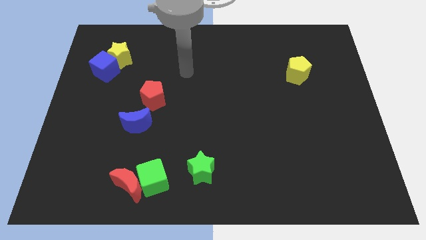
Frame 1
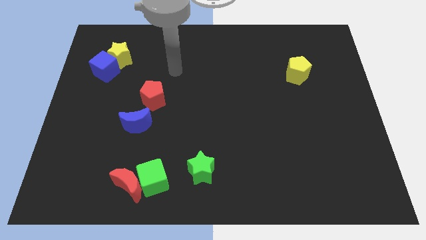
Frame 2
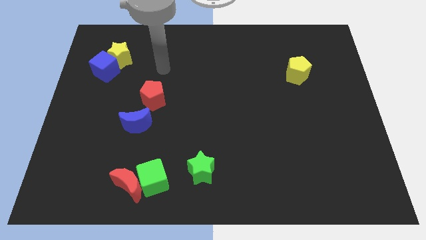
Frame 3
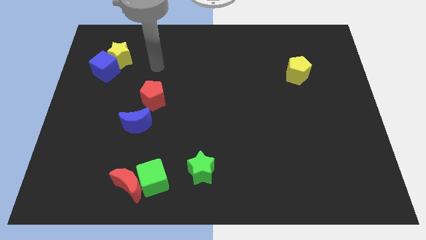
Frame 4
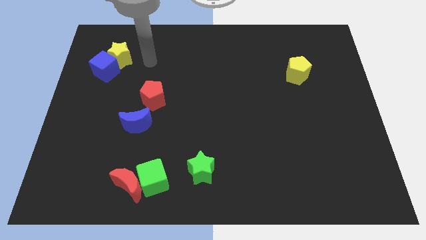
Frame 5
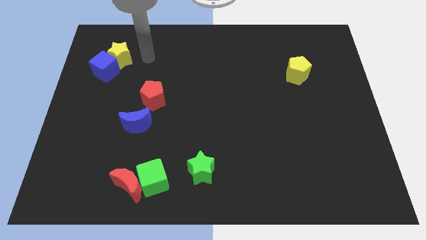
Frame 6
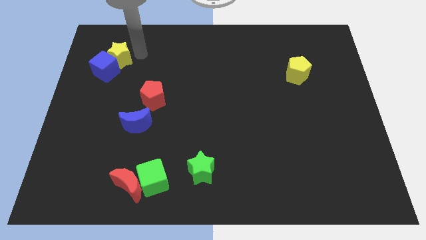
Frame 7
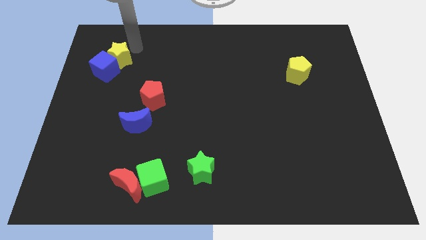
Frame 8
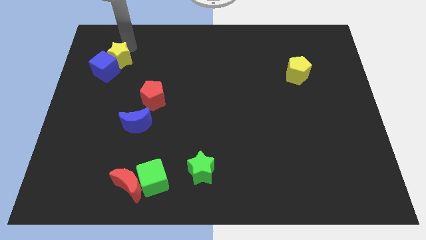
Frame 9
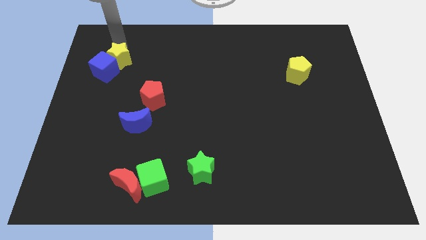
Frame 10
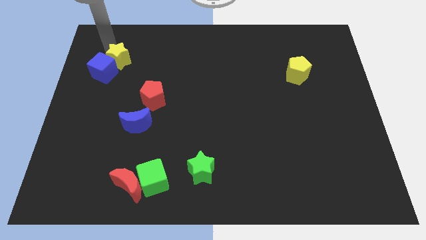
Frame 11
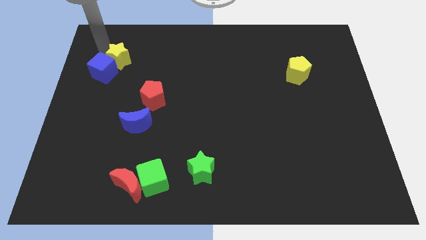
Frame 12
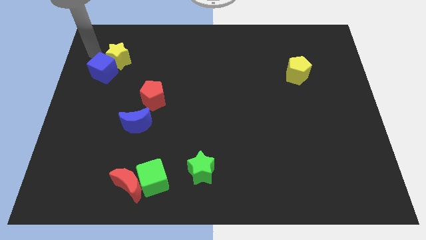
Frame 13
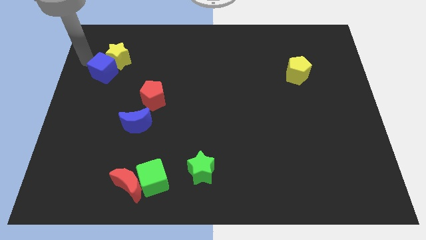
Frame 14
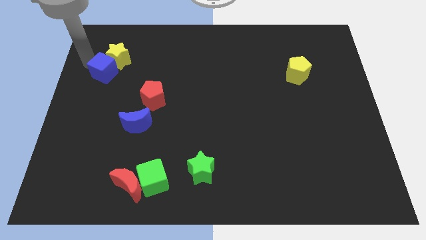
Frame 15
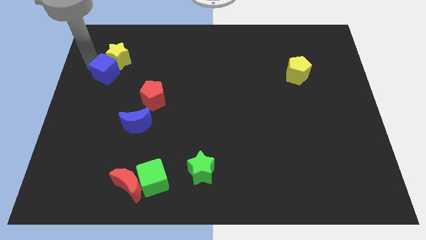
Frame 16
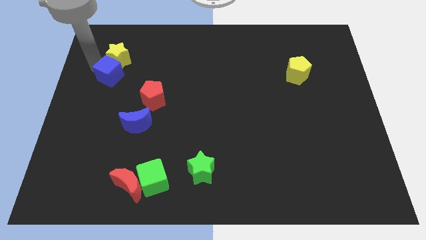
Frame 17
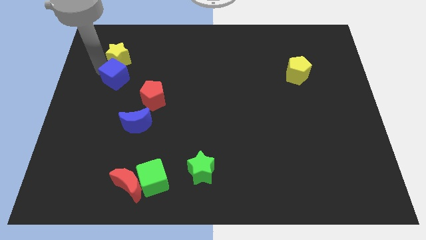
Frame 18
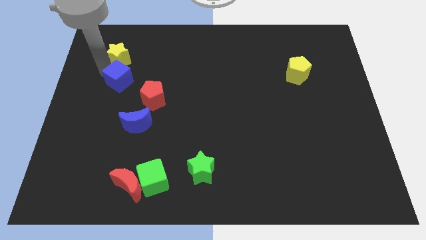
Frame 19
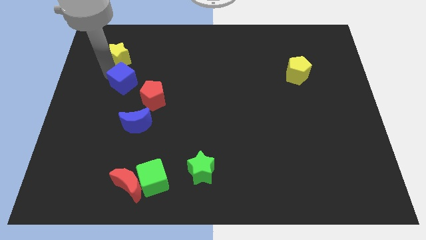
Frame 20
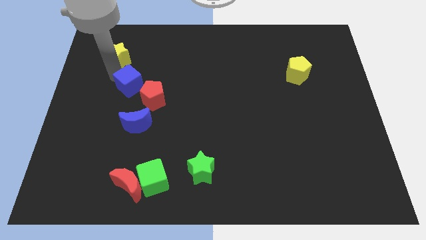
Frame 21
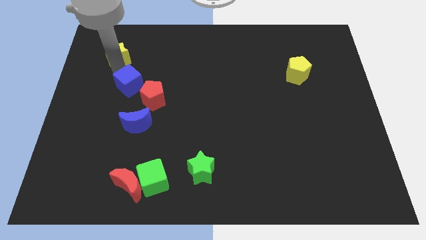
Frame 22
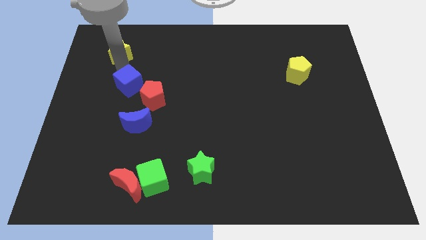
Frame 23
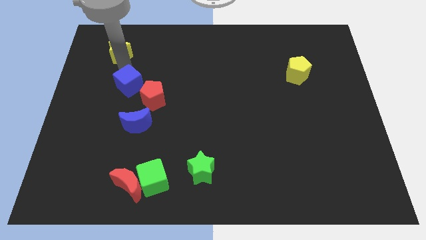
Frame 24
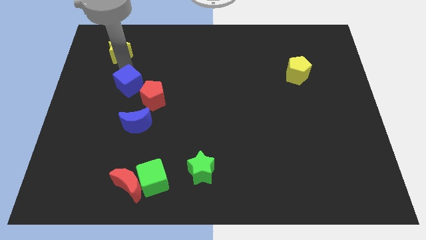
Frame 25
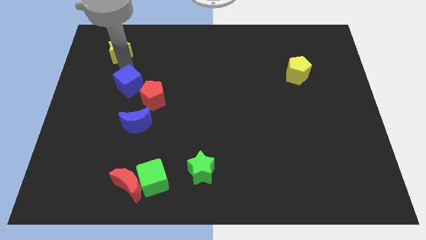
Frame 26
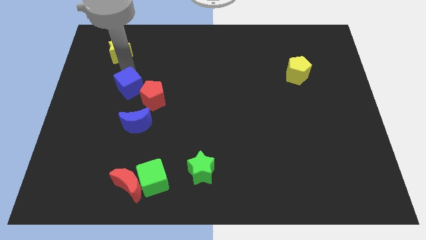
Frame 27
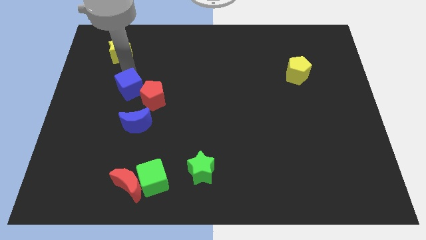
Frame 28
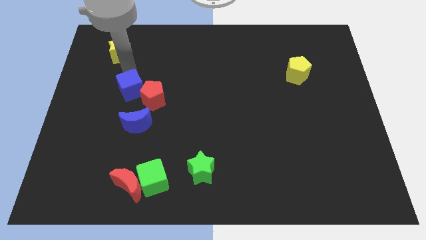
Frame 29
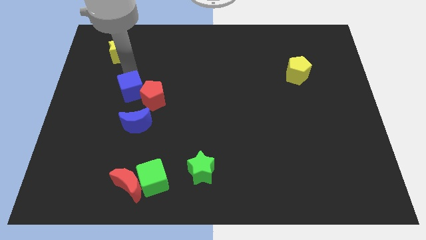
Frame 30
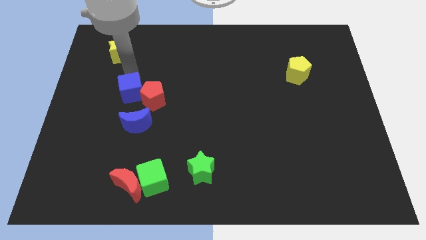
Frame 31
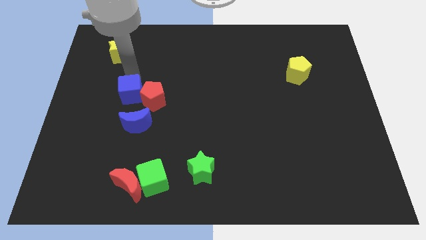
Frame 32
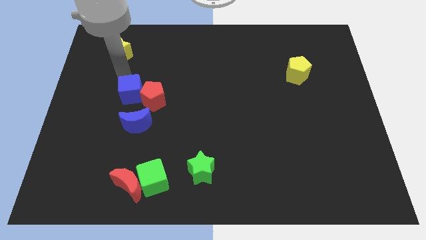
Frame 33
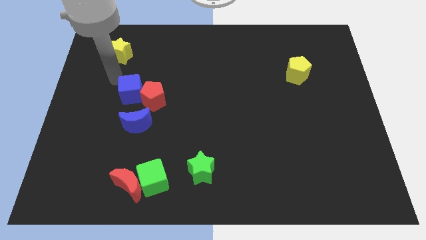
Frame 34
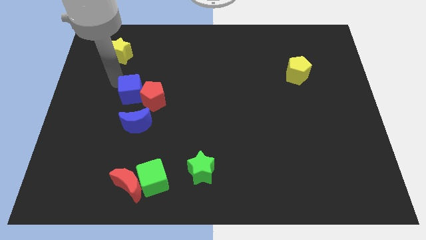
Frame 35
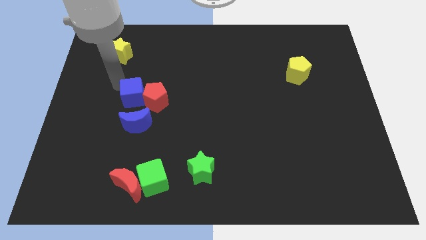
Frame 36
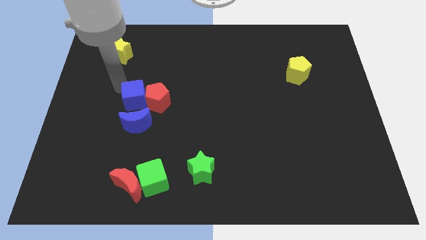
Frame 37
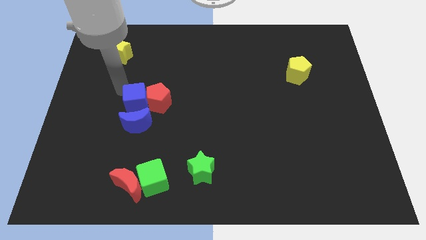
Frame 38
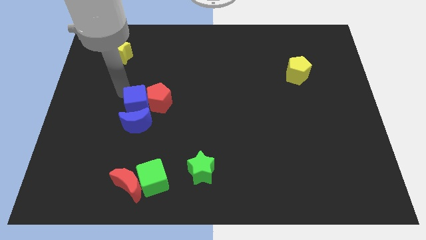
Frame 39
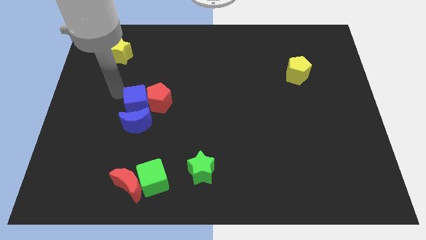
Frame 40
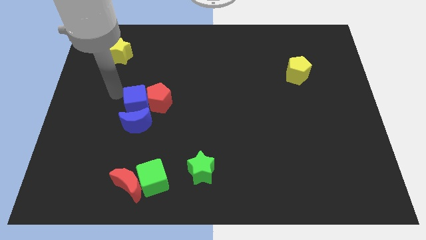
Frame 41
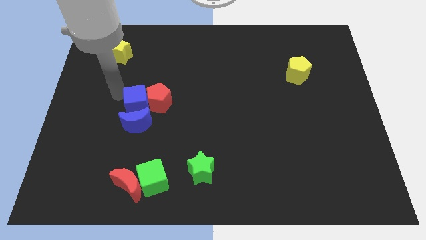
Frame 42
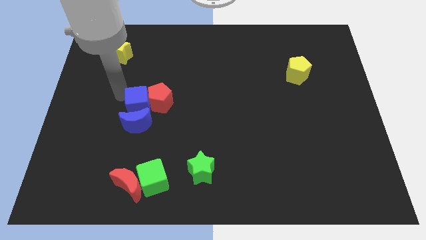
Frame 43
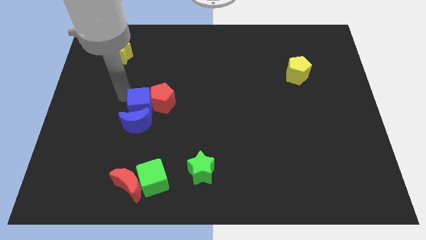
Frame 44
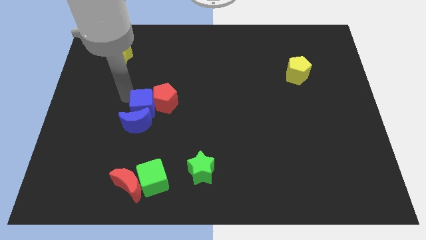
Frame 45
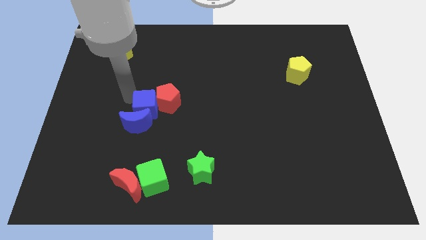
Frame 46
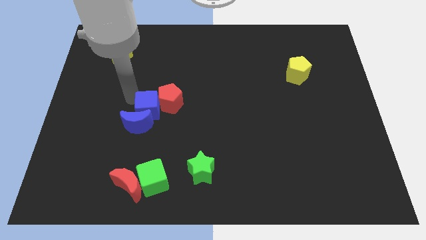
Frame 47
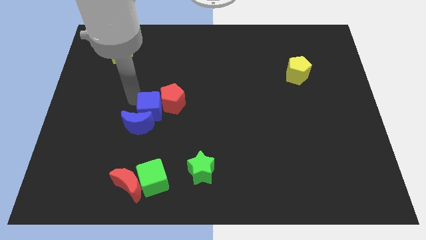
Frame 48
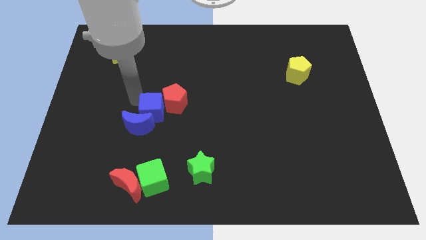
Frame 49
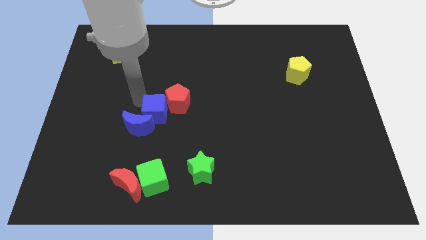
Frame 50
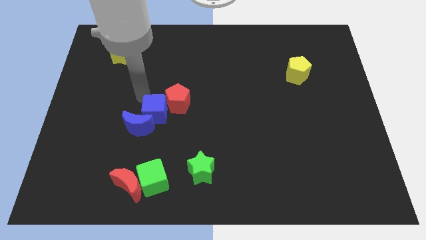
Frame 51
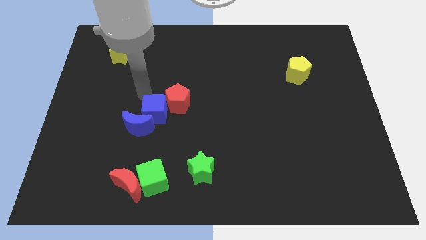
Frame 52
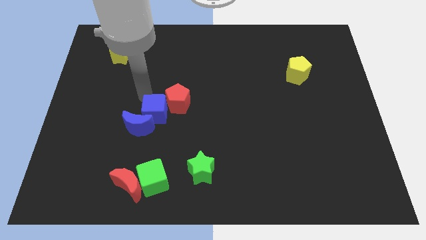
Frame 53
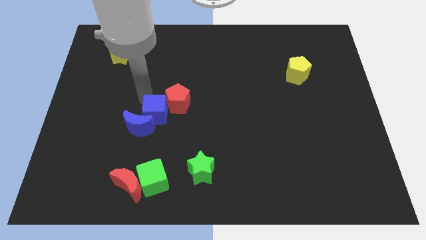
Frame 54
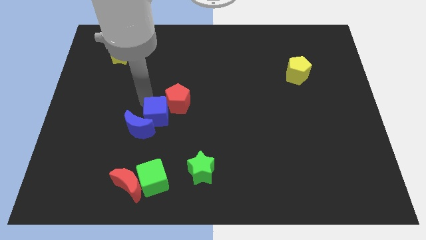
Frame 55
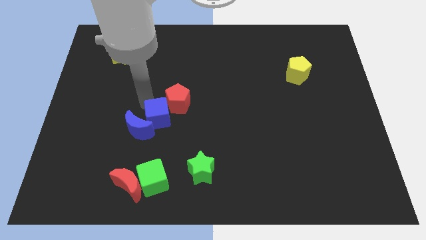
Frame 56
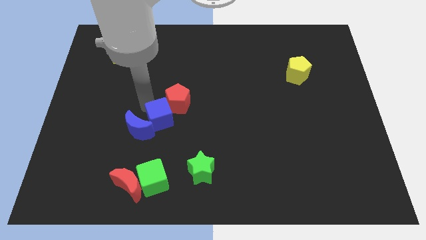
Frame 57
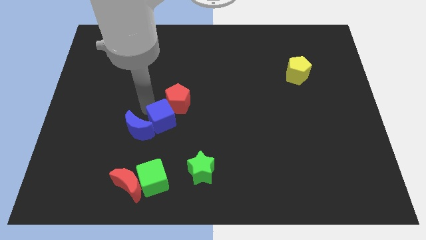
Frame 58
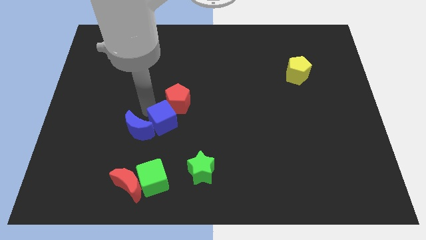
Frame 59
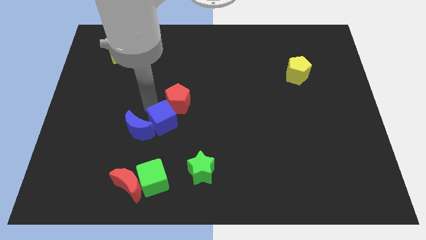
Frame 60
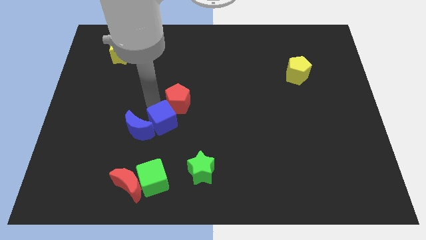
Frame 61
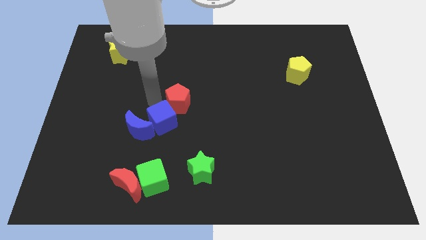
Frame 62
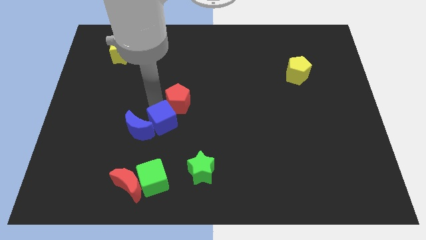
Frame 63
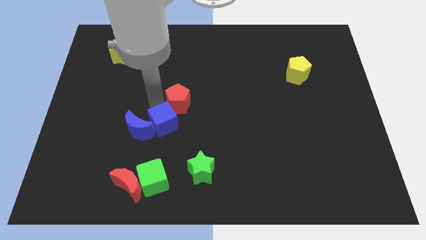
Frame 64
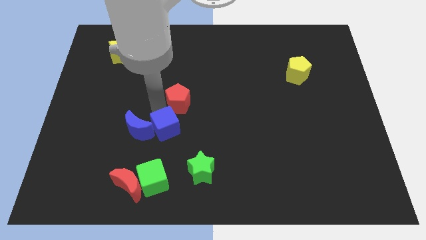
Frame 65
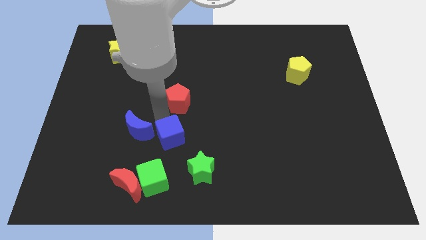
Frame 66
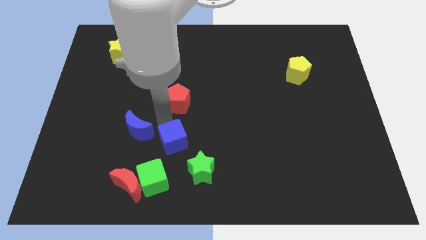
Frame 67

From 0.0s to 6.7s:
slide the blue cube diagonally up and to the right of the green cube

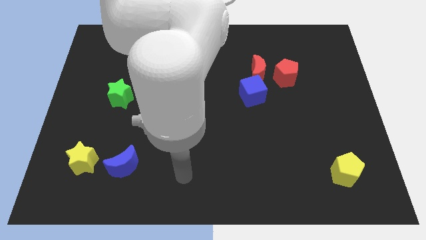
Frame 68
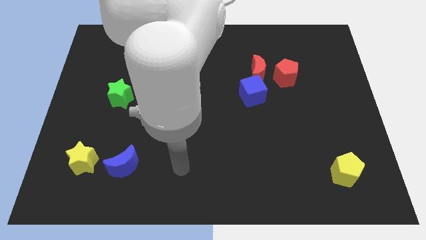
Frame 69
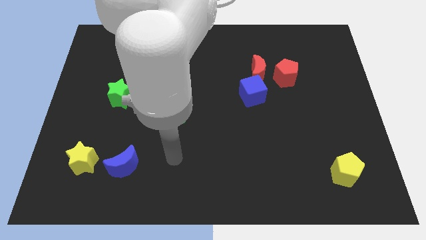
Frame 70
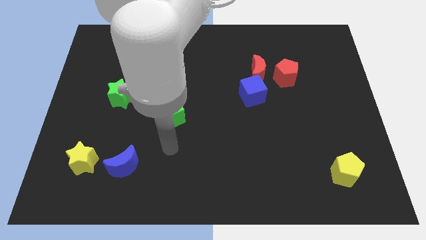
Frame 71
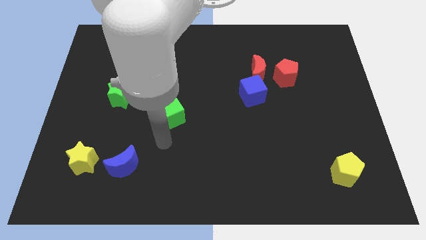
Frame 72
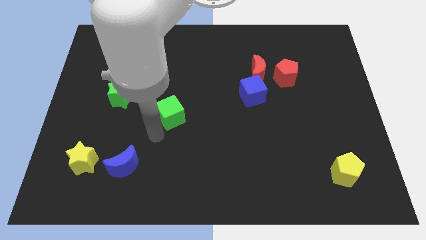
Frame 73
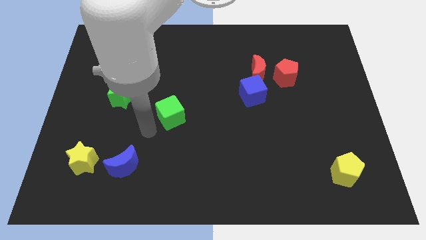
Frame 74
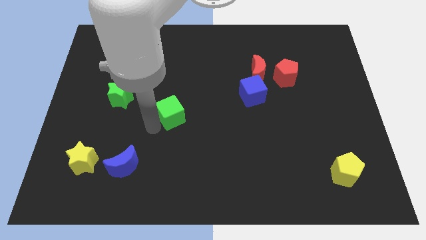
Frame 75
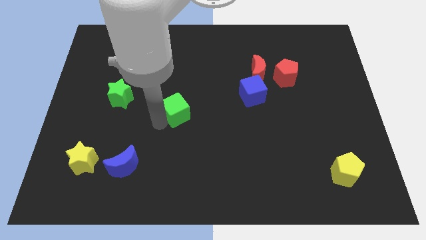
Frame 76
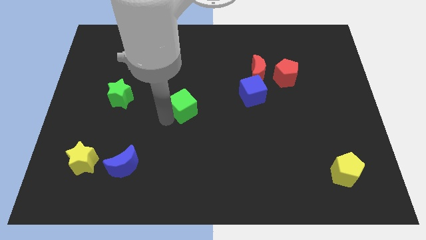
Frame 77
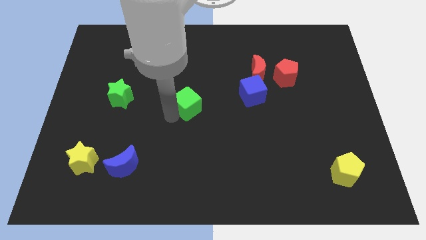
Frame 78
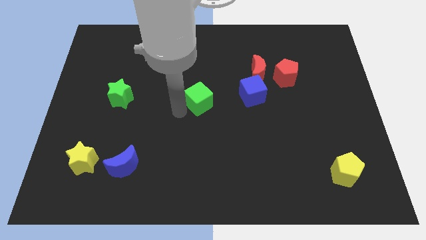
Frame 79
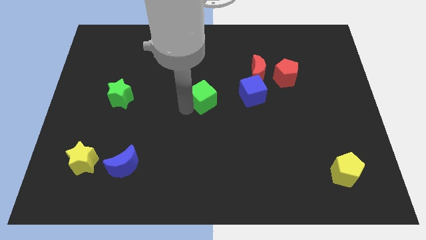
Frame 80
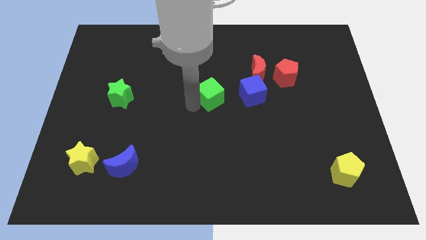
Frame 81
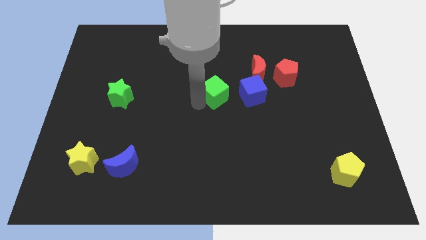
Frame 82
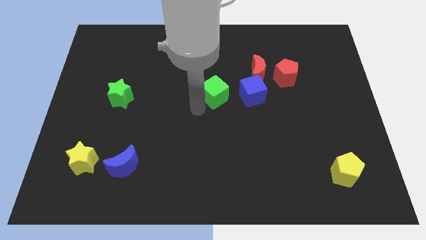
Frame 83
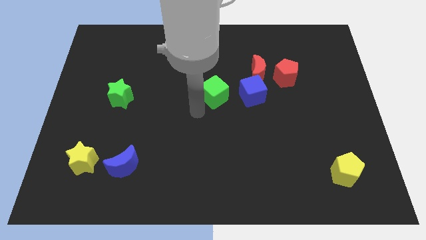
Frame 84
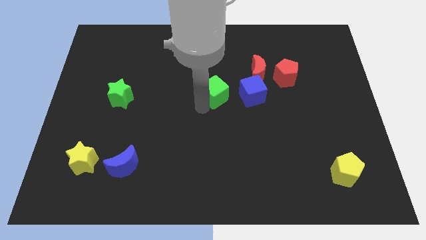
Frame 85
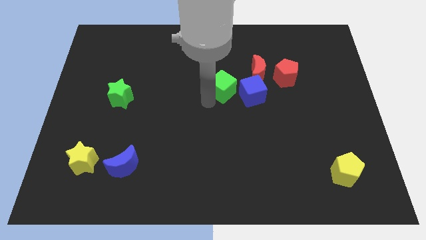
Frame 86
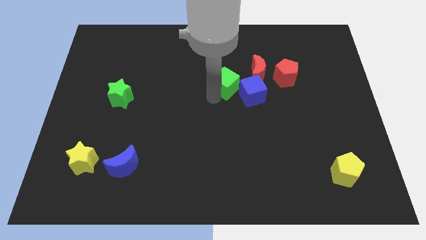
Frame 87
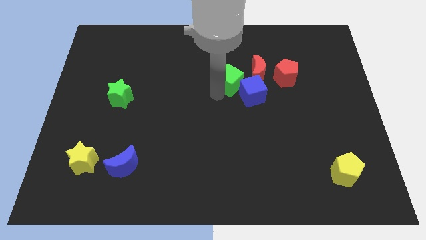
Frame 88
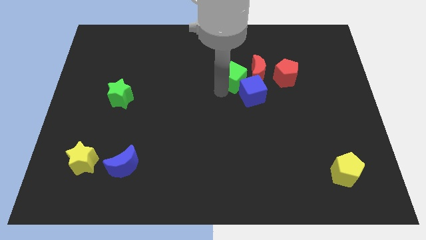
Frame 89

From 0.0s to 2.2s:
slide the green cube to the top side of the blue cube
